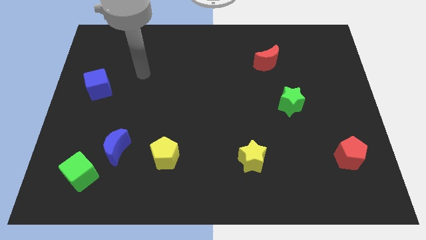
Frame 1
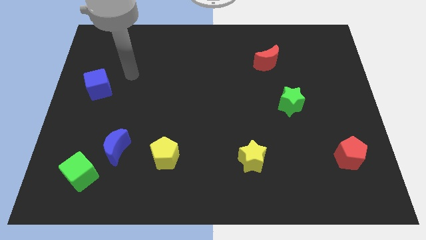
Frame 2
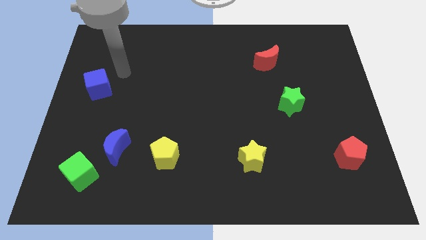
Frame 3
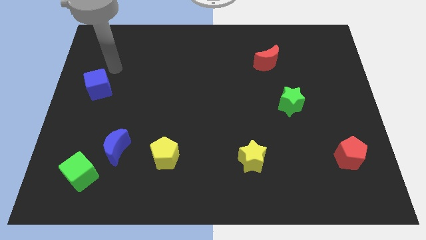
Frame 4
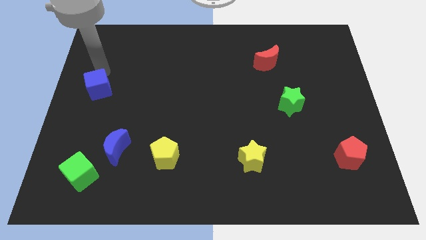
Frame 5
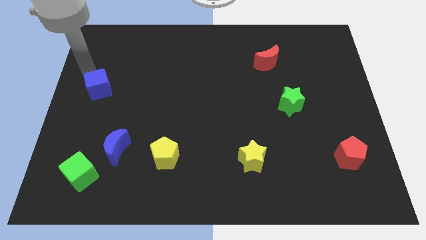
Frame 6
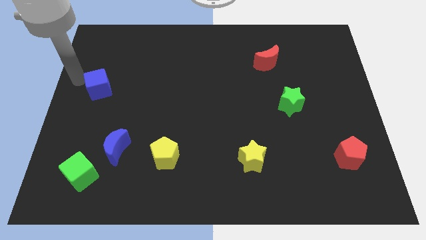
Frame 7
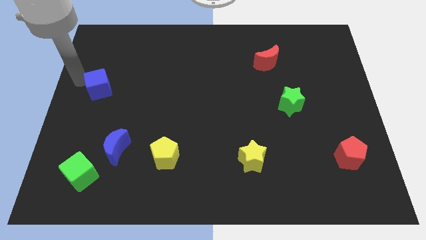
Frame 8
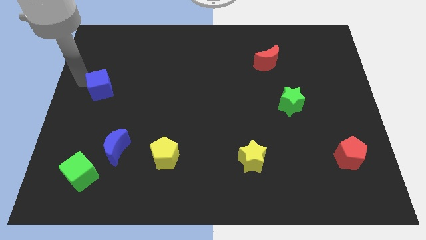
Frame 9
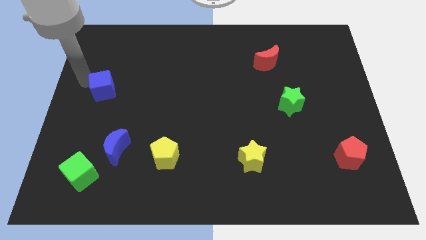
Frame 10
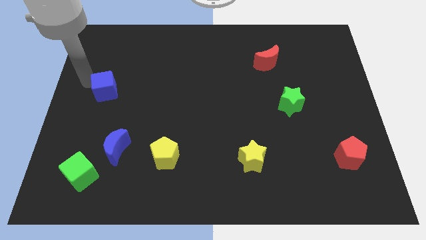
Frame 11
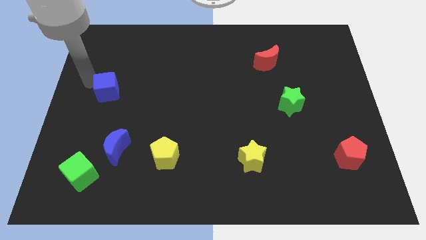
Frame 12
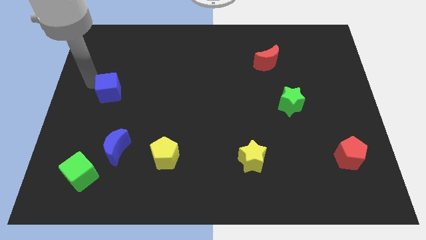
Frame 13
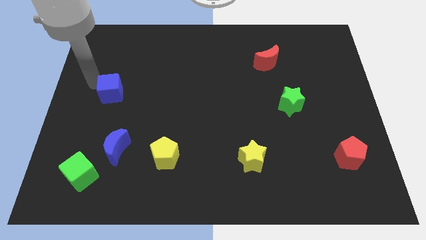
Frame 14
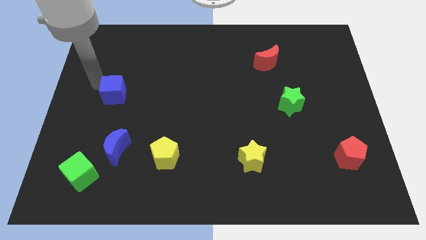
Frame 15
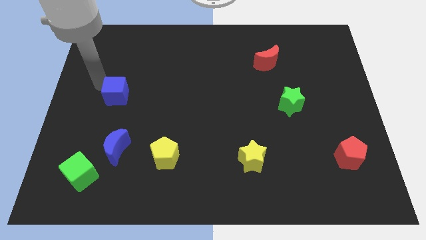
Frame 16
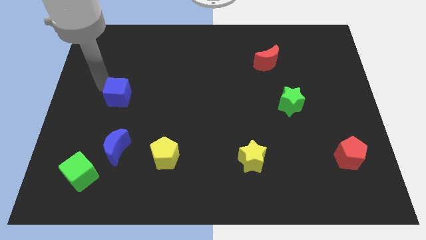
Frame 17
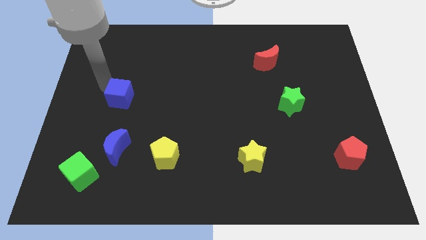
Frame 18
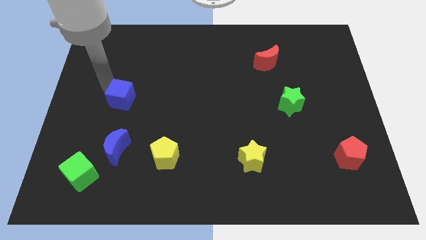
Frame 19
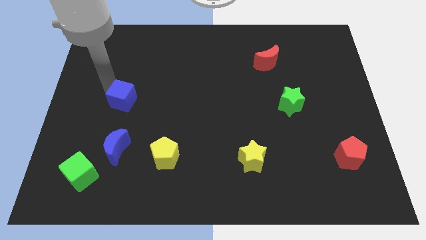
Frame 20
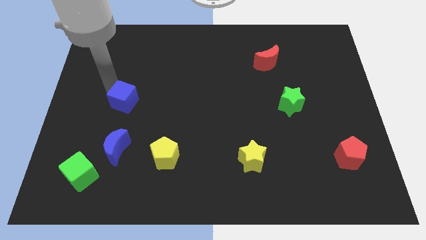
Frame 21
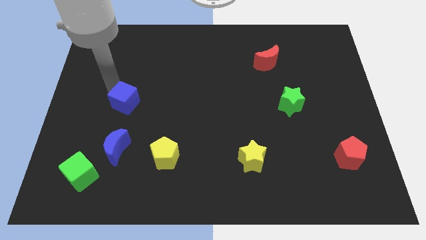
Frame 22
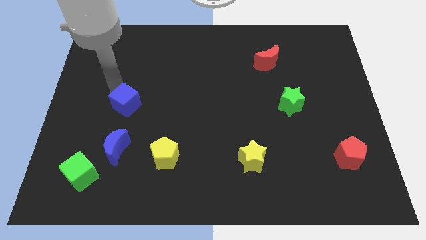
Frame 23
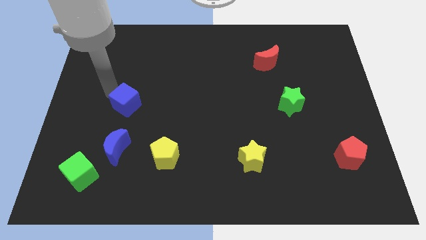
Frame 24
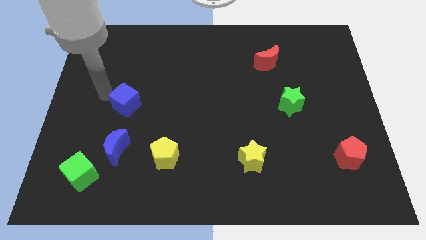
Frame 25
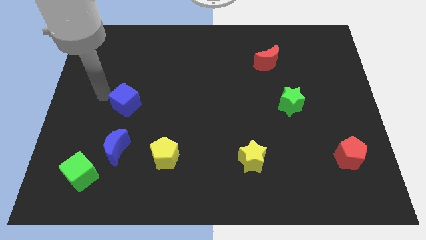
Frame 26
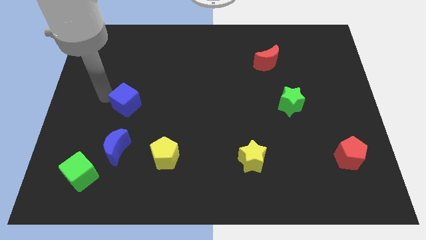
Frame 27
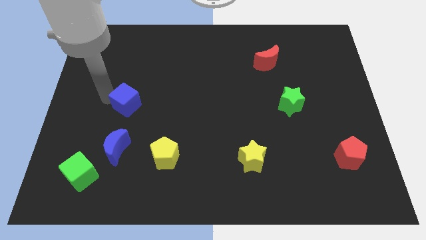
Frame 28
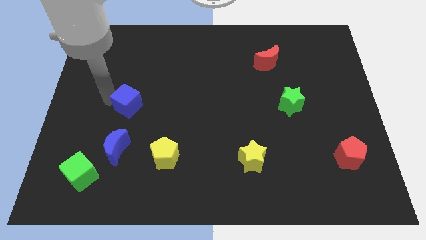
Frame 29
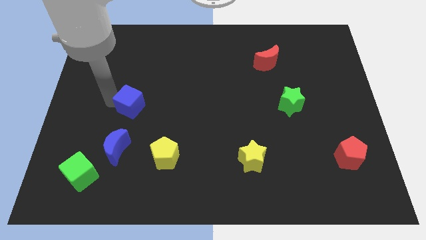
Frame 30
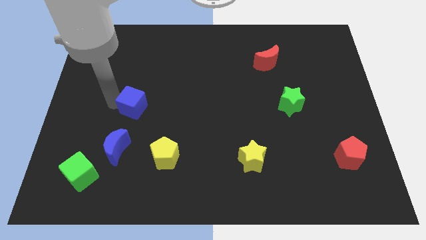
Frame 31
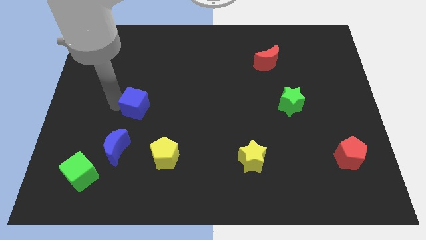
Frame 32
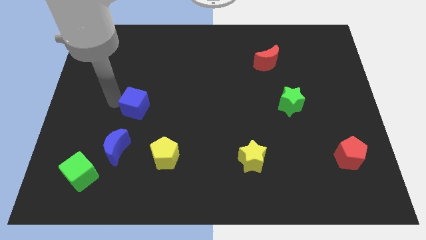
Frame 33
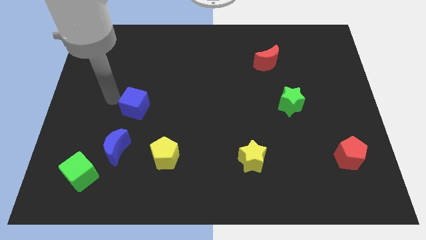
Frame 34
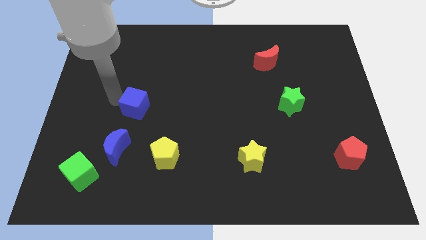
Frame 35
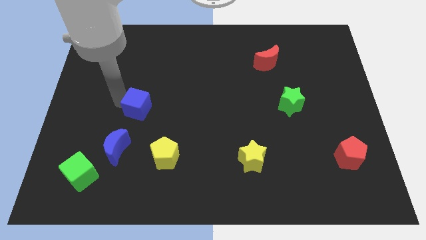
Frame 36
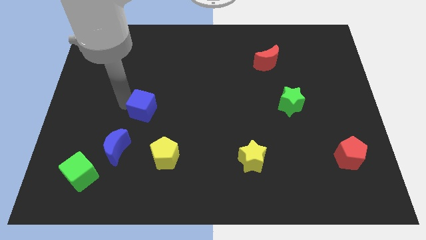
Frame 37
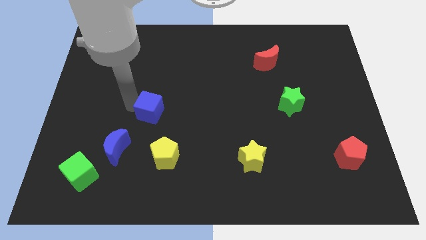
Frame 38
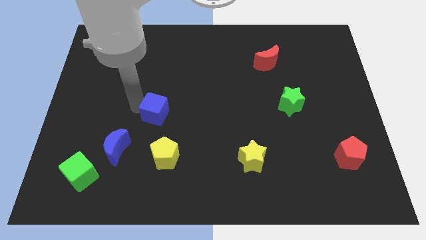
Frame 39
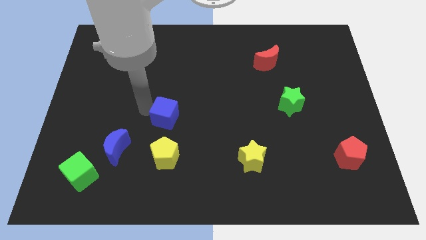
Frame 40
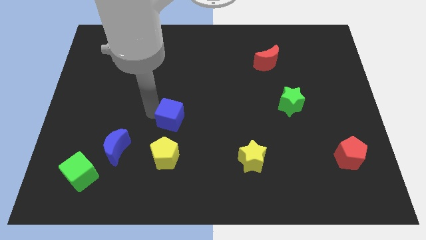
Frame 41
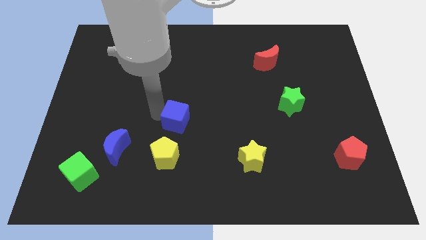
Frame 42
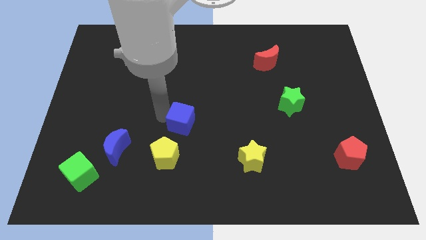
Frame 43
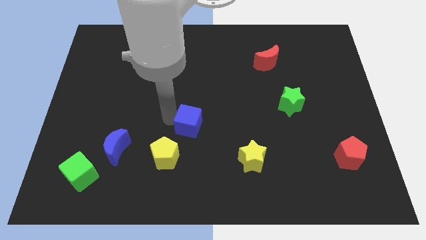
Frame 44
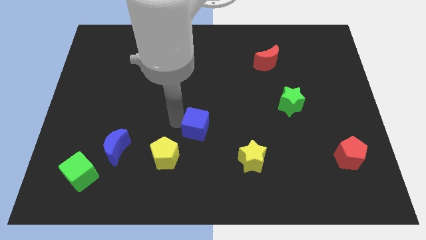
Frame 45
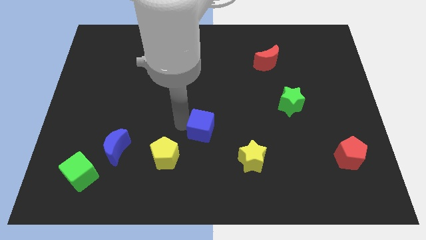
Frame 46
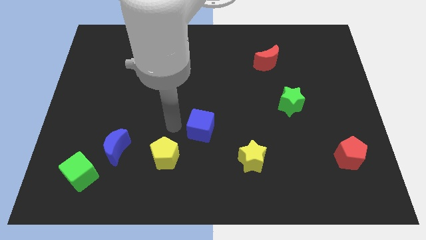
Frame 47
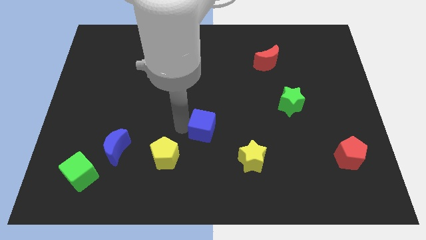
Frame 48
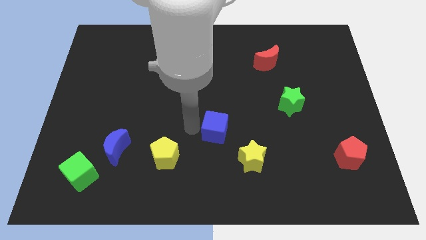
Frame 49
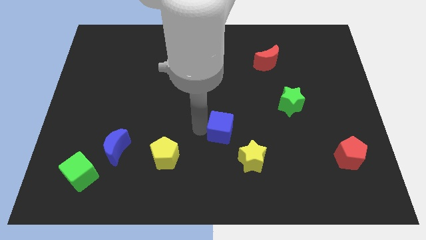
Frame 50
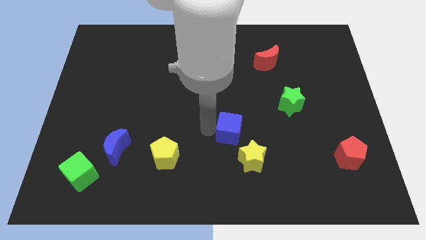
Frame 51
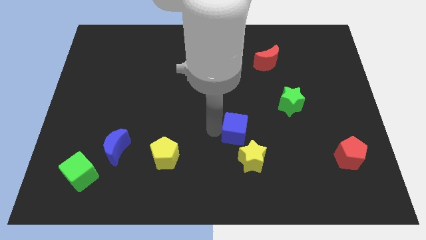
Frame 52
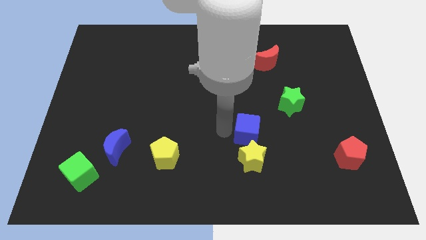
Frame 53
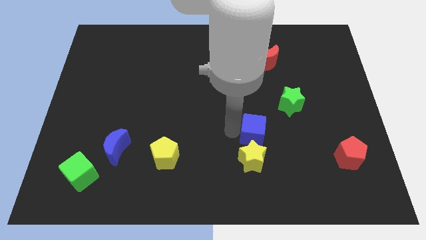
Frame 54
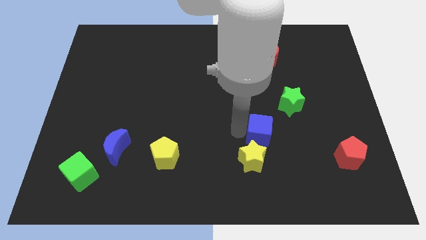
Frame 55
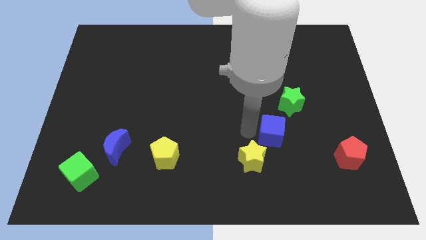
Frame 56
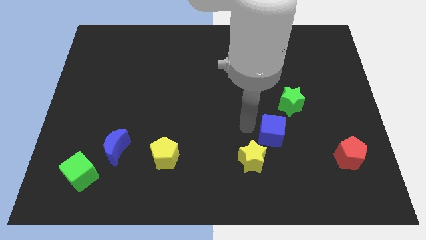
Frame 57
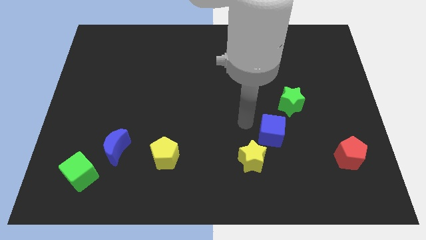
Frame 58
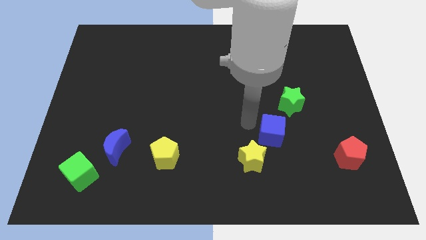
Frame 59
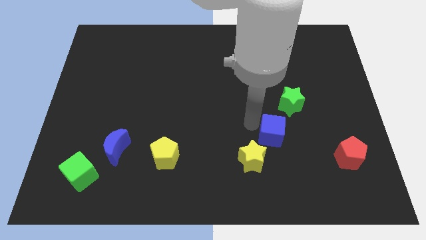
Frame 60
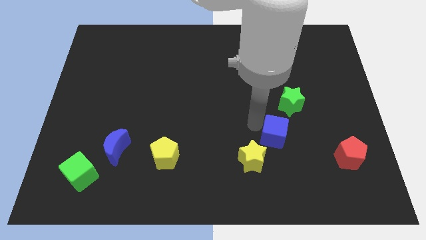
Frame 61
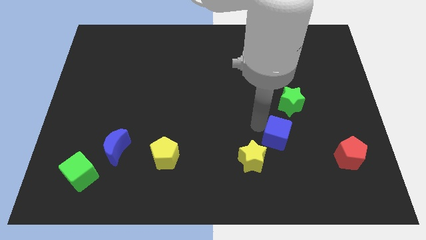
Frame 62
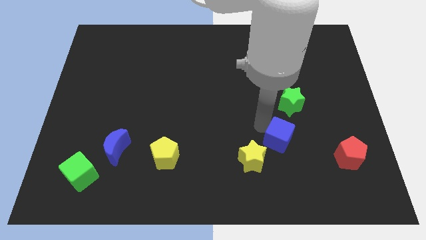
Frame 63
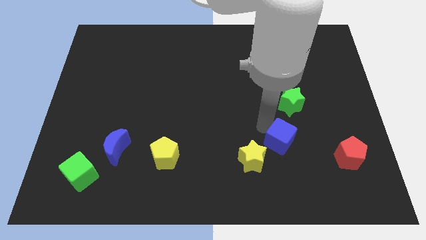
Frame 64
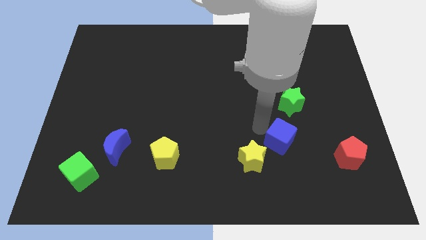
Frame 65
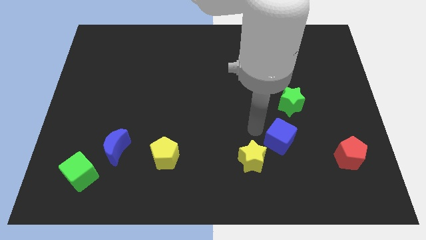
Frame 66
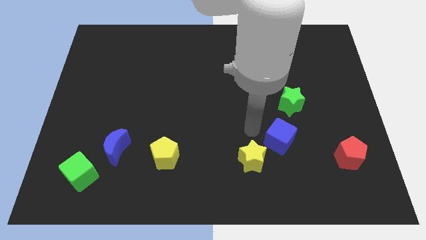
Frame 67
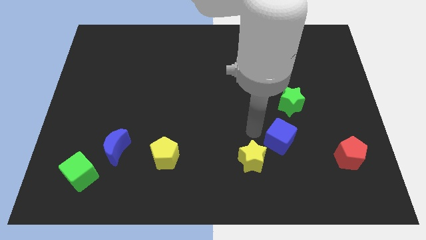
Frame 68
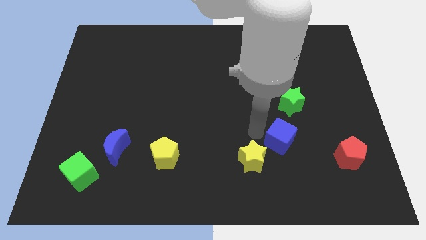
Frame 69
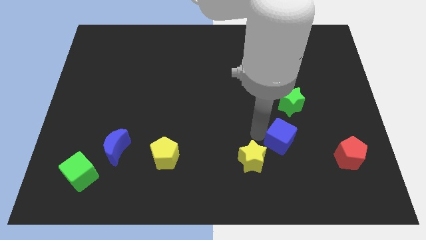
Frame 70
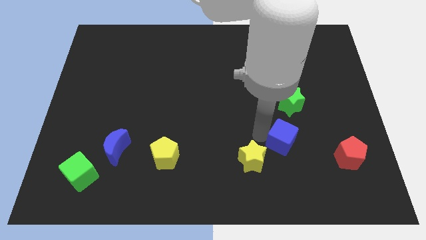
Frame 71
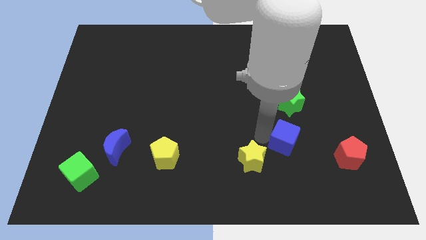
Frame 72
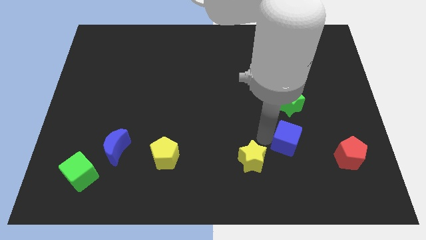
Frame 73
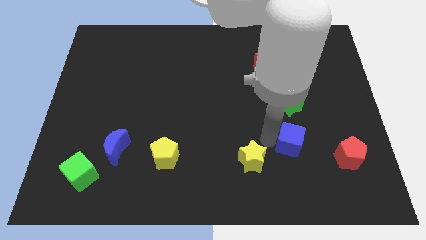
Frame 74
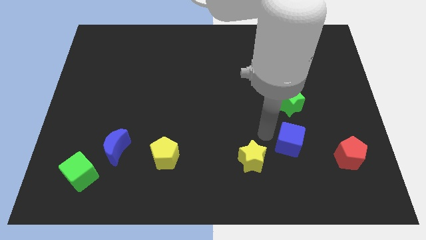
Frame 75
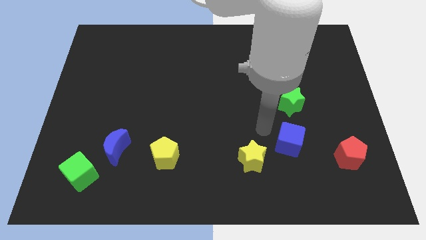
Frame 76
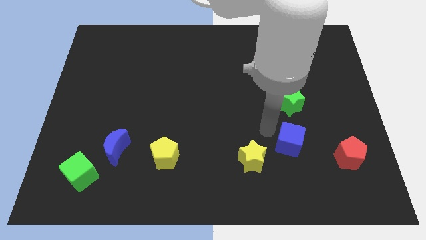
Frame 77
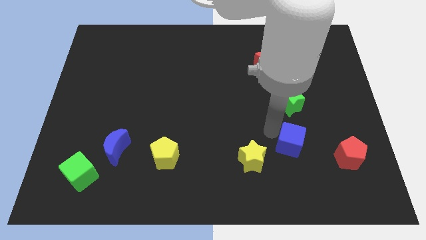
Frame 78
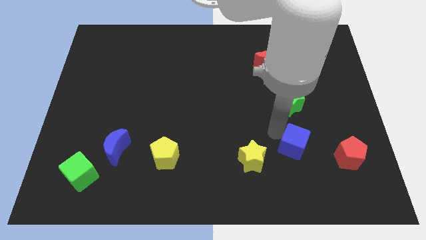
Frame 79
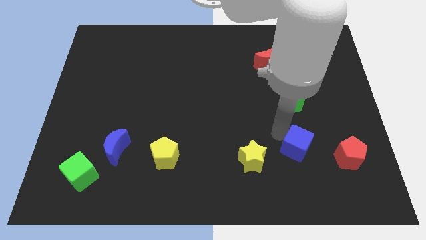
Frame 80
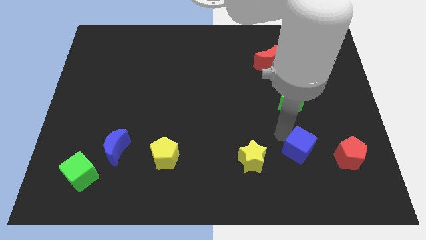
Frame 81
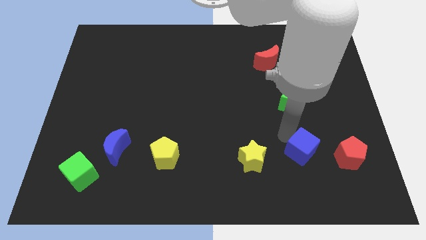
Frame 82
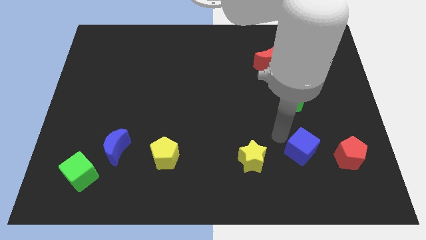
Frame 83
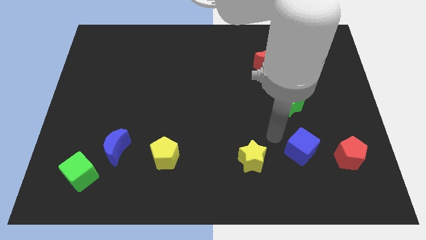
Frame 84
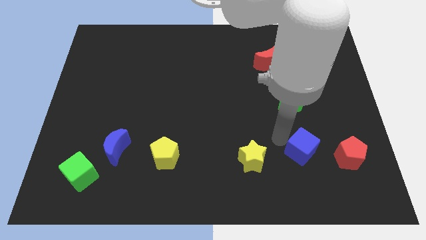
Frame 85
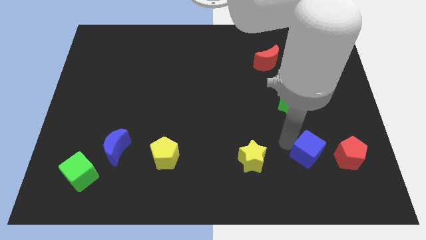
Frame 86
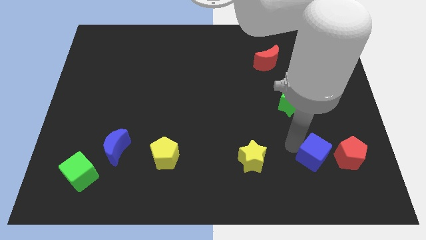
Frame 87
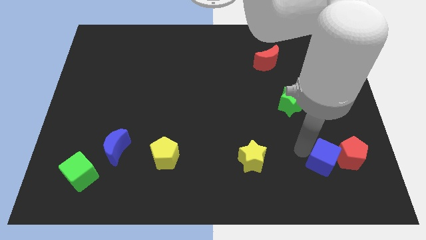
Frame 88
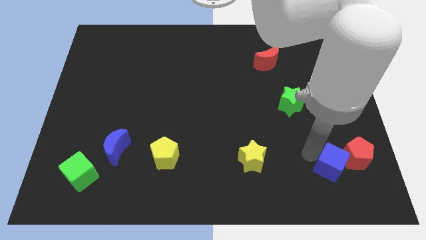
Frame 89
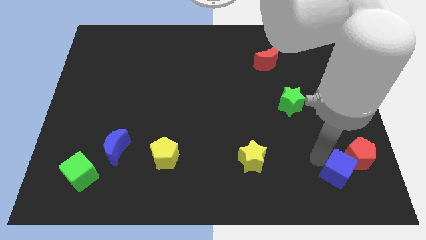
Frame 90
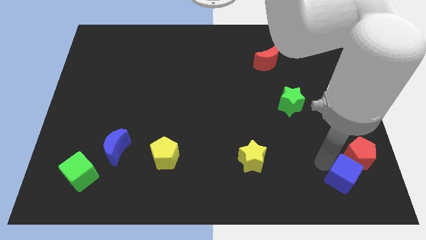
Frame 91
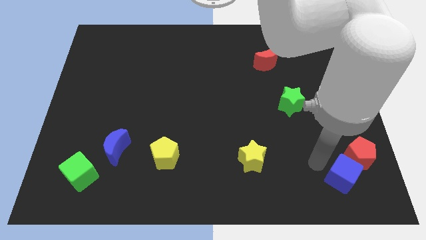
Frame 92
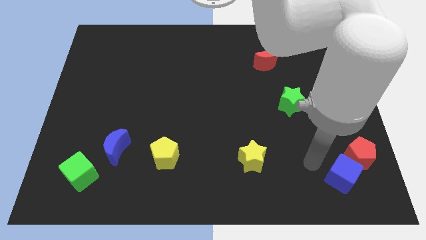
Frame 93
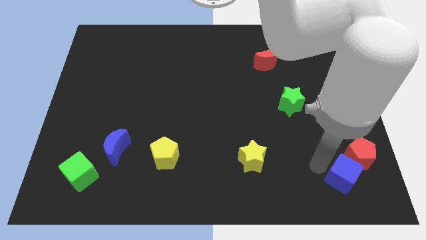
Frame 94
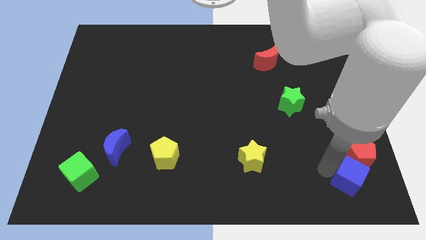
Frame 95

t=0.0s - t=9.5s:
push the blue cube to the bottom right
